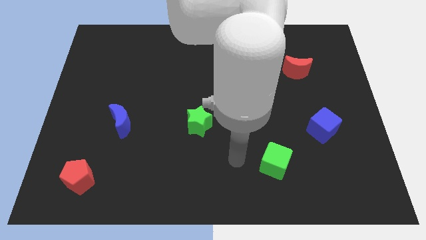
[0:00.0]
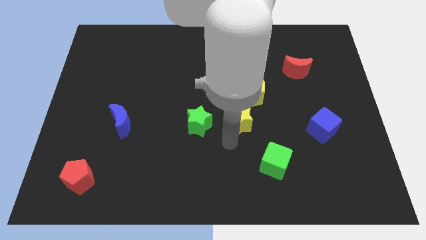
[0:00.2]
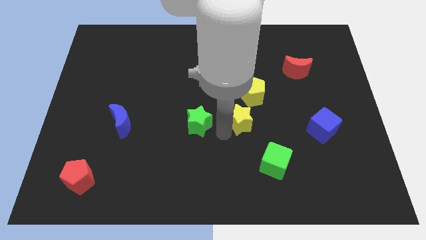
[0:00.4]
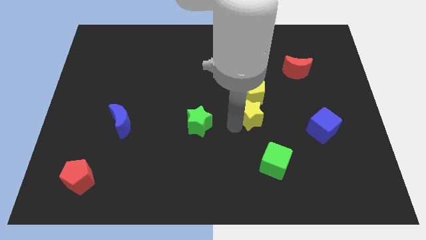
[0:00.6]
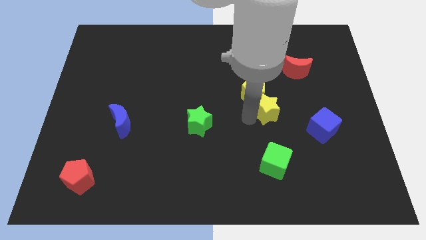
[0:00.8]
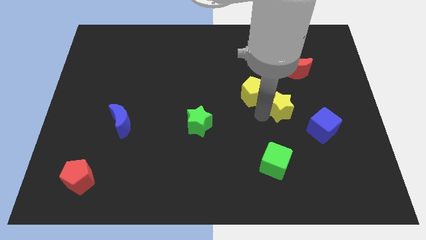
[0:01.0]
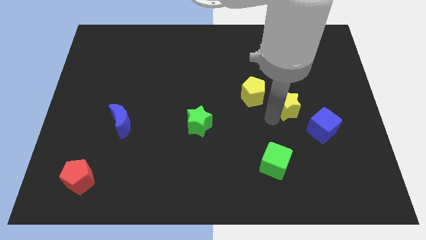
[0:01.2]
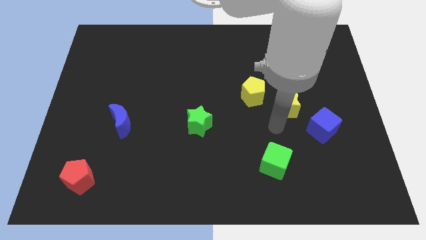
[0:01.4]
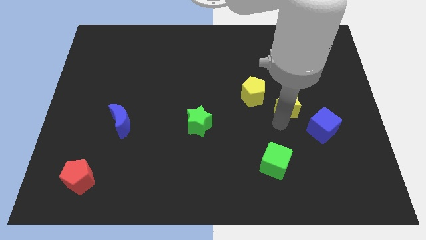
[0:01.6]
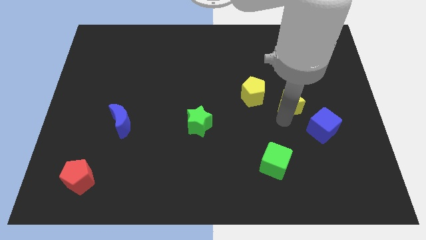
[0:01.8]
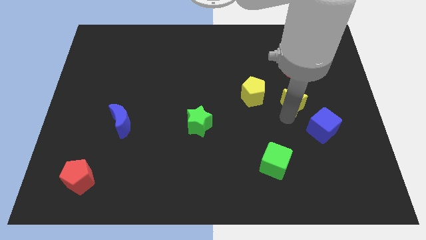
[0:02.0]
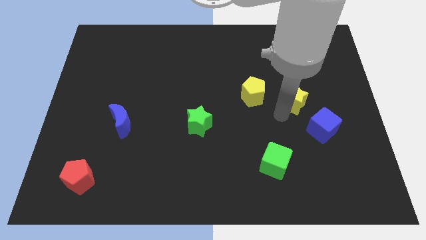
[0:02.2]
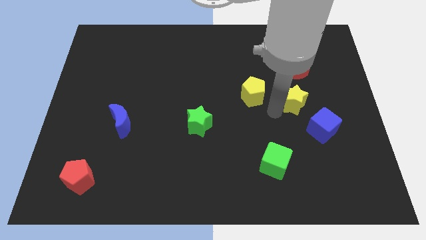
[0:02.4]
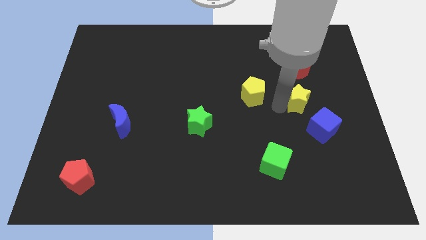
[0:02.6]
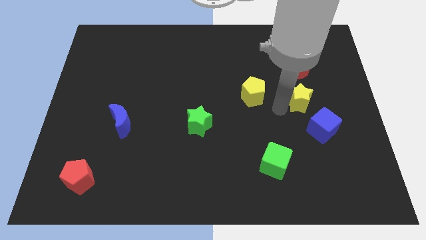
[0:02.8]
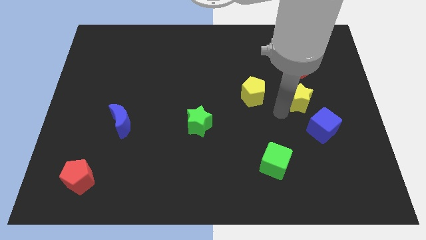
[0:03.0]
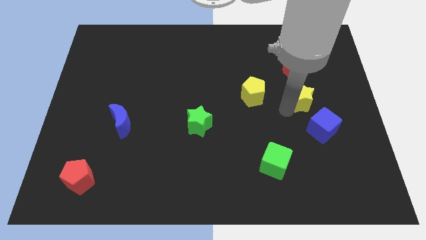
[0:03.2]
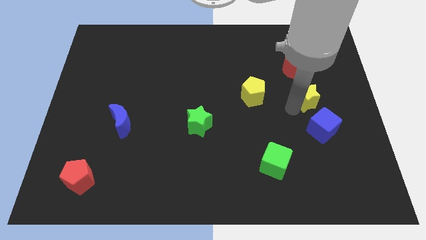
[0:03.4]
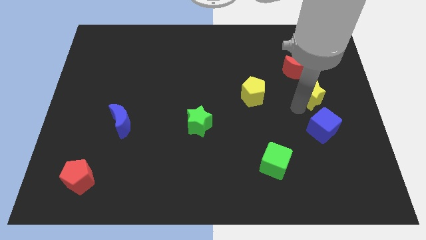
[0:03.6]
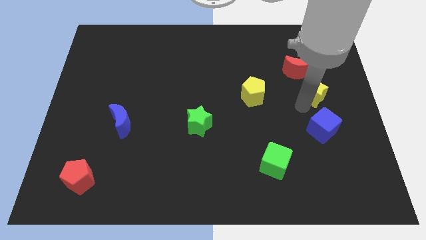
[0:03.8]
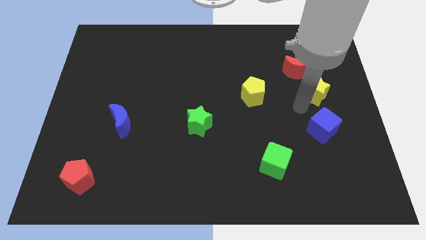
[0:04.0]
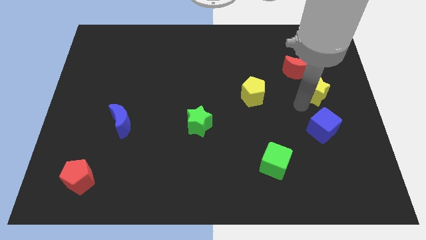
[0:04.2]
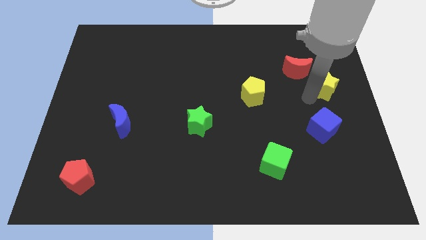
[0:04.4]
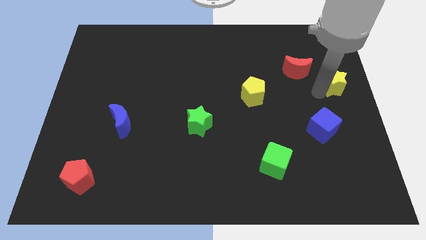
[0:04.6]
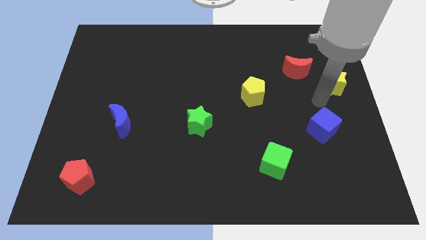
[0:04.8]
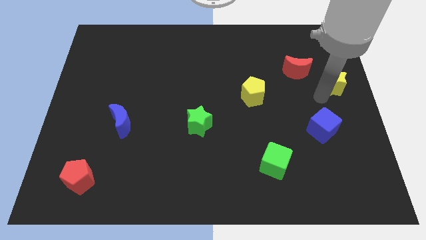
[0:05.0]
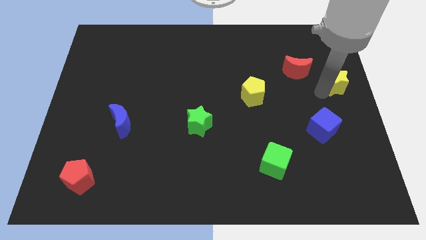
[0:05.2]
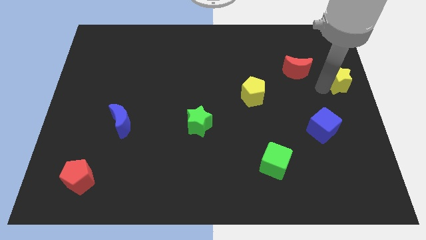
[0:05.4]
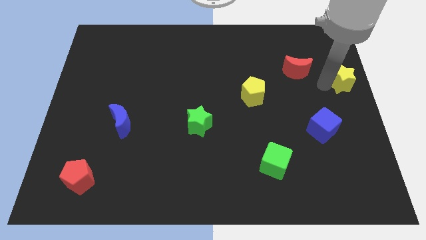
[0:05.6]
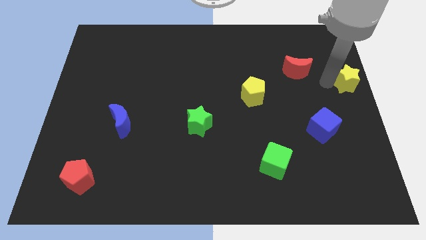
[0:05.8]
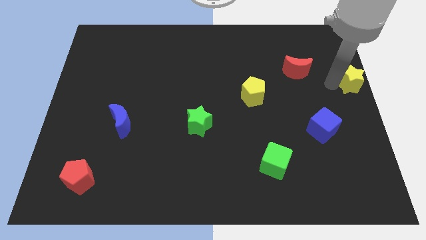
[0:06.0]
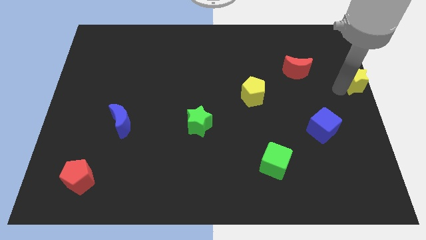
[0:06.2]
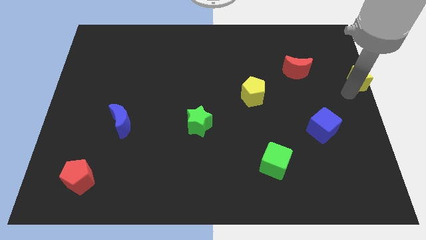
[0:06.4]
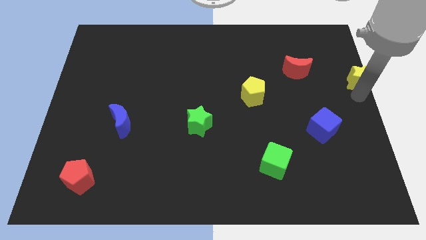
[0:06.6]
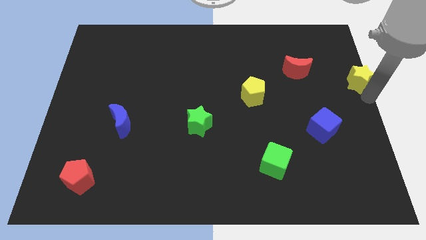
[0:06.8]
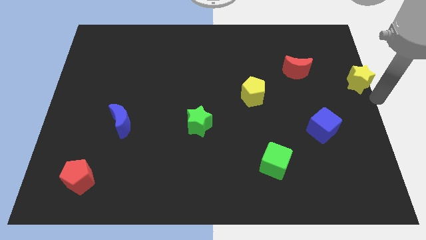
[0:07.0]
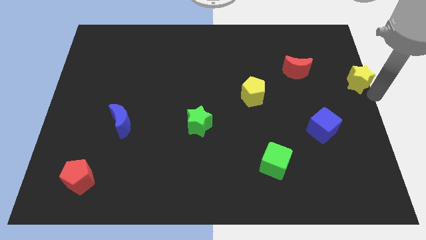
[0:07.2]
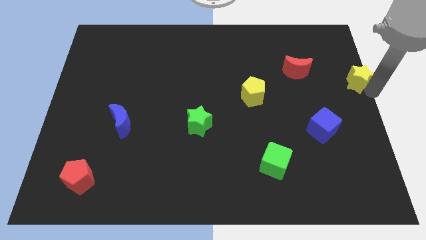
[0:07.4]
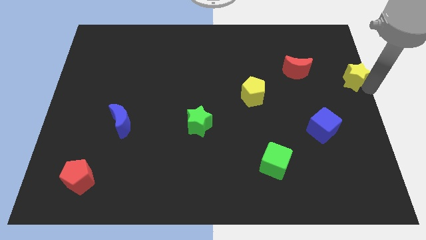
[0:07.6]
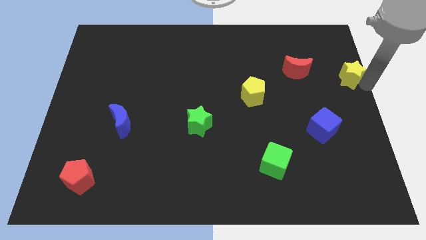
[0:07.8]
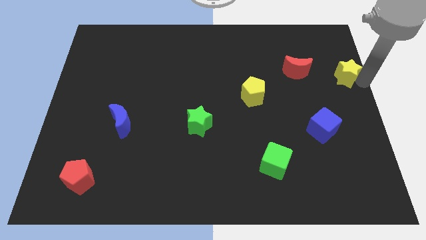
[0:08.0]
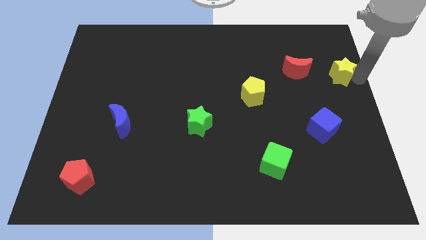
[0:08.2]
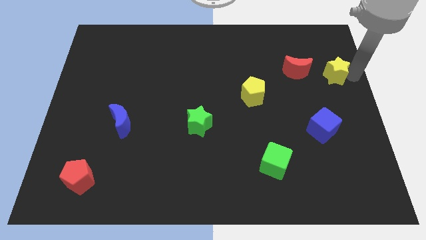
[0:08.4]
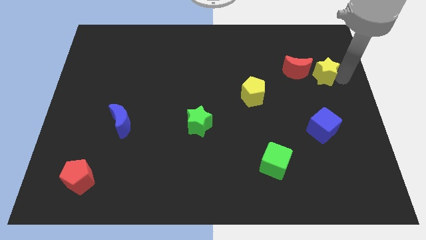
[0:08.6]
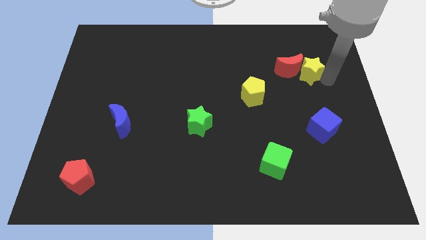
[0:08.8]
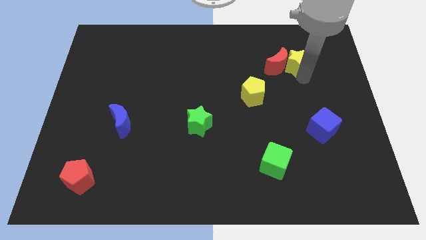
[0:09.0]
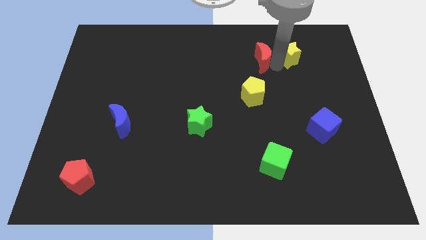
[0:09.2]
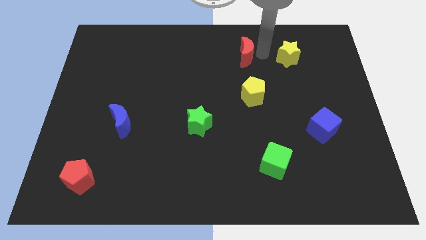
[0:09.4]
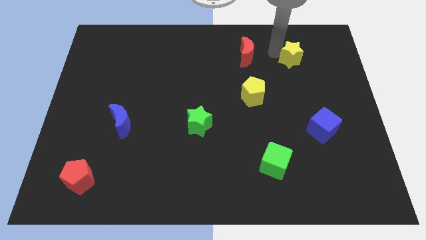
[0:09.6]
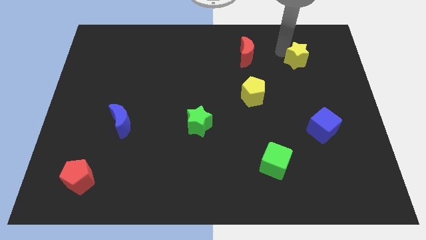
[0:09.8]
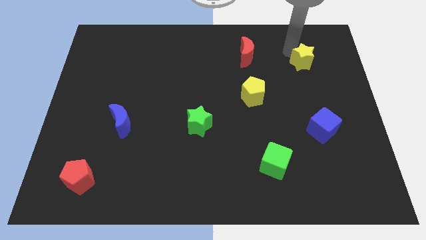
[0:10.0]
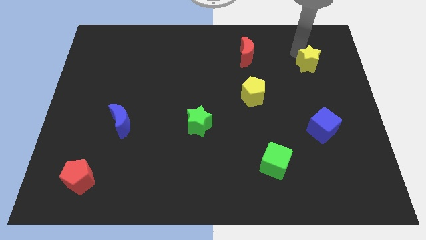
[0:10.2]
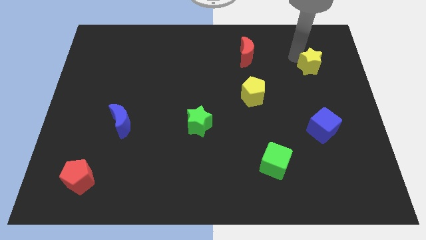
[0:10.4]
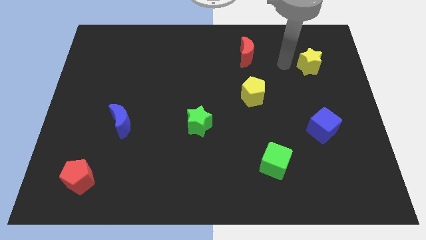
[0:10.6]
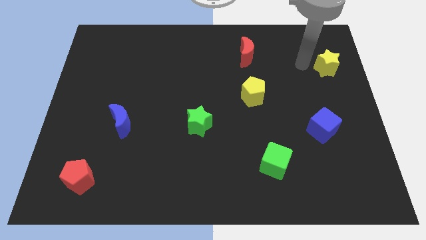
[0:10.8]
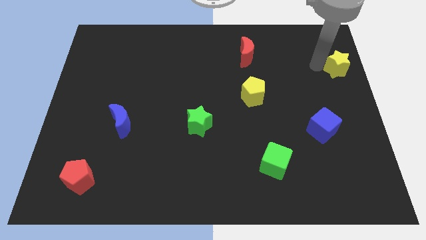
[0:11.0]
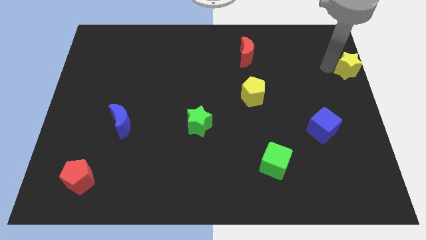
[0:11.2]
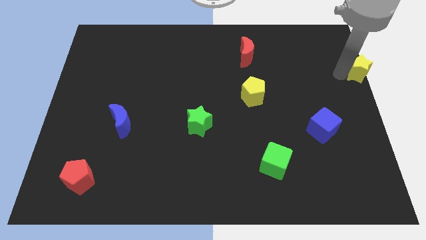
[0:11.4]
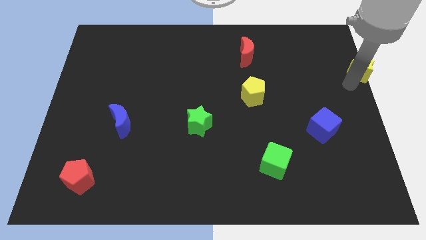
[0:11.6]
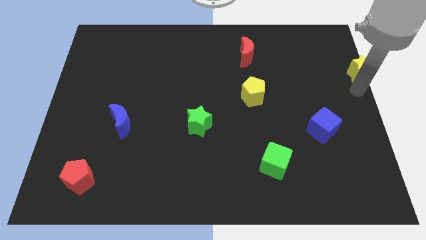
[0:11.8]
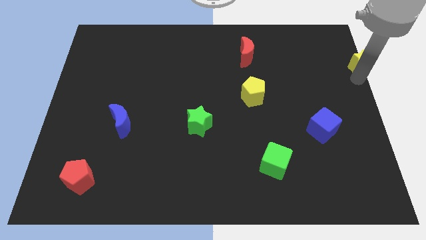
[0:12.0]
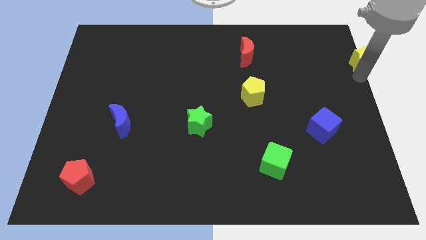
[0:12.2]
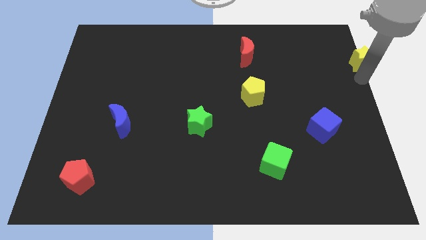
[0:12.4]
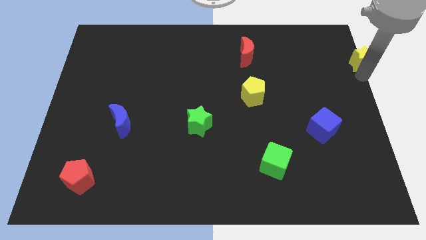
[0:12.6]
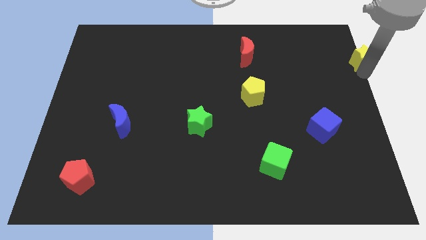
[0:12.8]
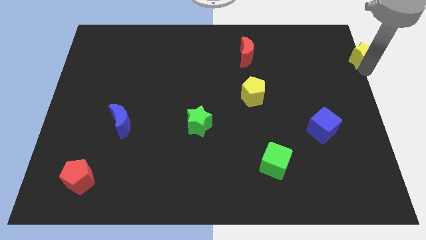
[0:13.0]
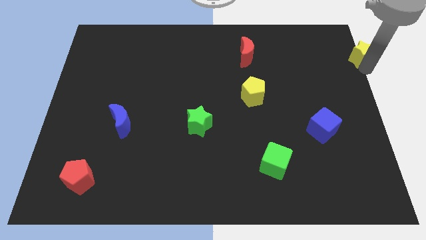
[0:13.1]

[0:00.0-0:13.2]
push the yellow star to the top right corner

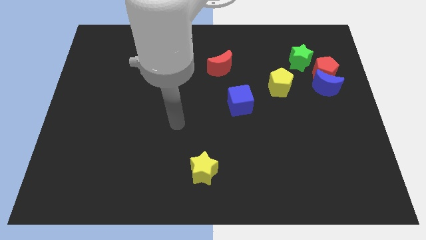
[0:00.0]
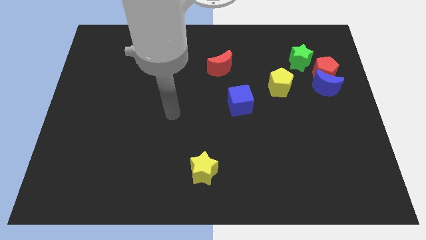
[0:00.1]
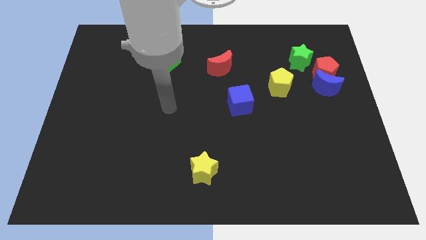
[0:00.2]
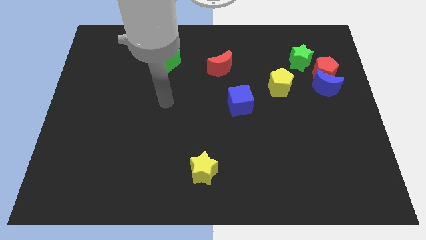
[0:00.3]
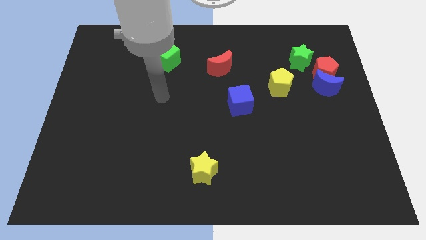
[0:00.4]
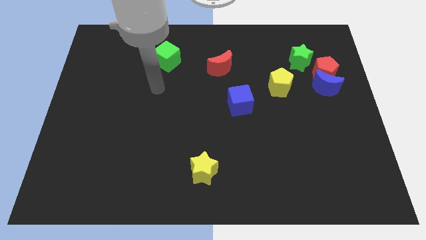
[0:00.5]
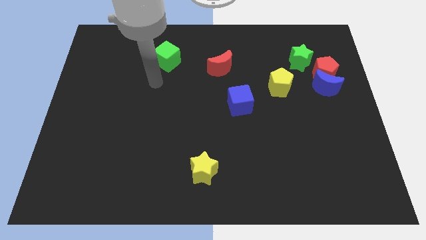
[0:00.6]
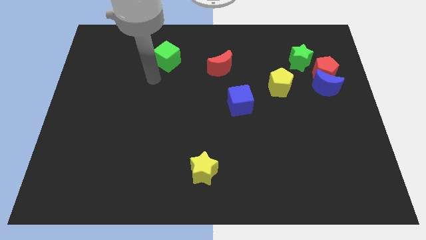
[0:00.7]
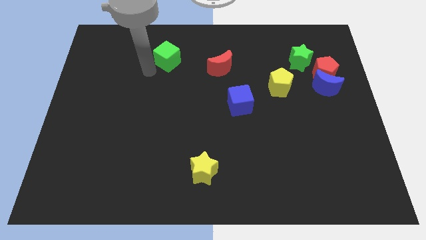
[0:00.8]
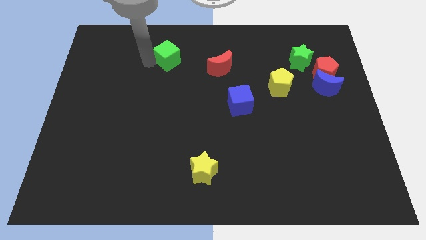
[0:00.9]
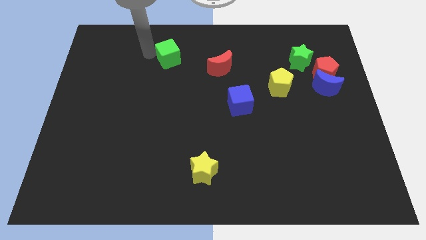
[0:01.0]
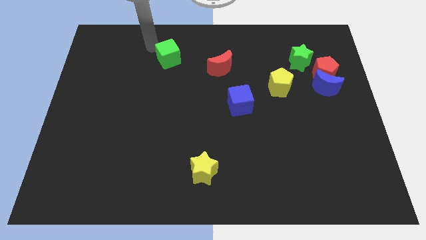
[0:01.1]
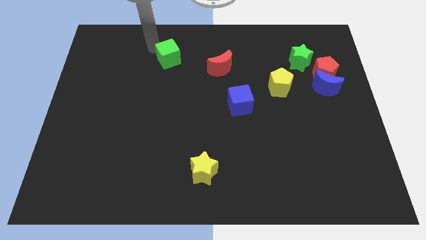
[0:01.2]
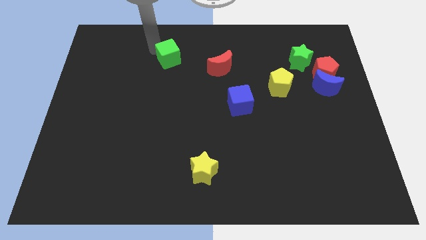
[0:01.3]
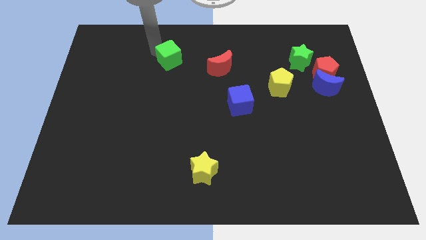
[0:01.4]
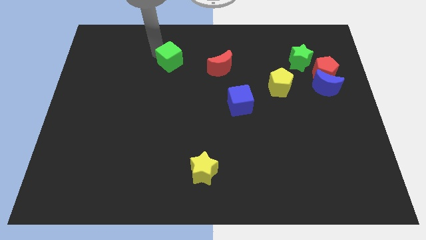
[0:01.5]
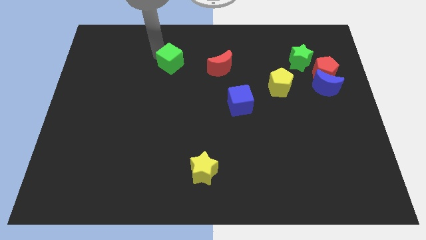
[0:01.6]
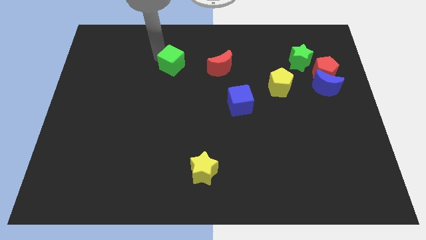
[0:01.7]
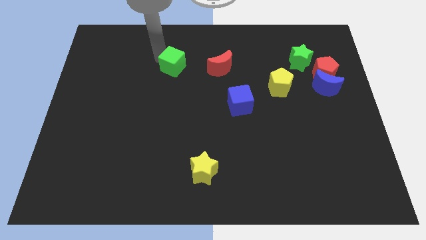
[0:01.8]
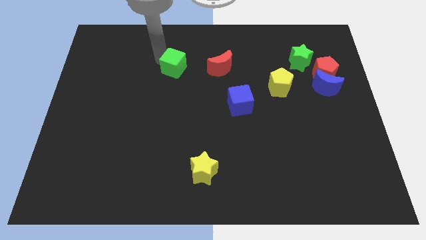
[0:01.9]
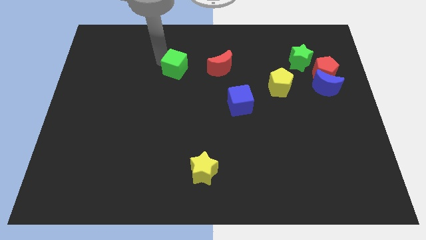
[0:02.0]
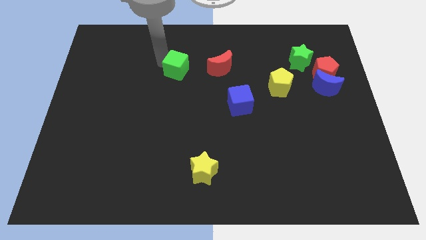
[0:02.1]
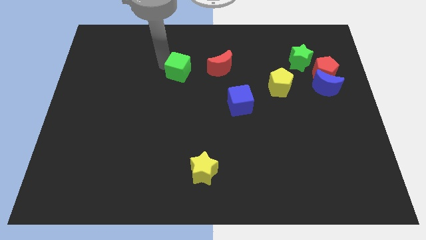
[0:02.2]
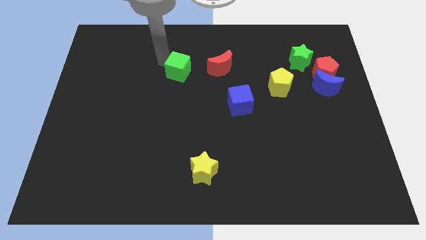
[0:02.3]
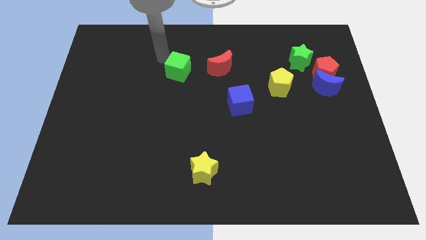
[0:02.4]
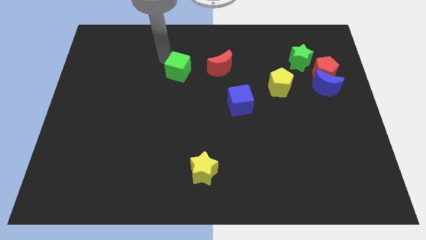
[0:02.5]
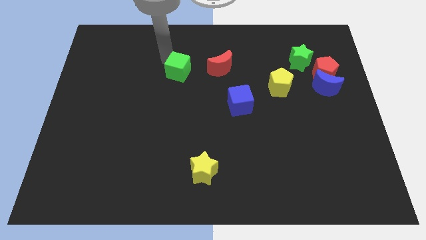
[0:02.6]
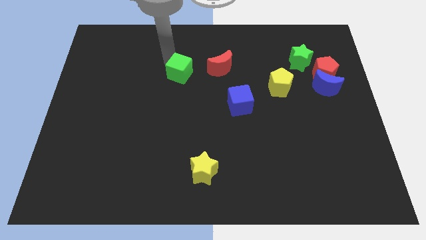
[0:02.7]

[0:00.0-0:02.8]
push the green cube to the center of the board
